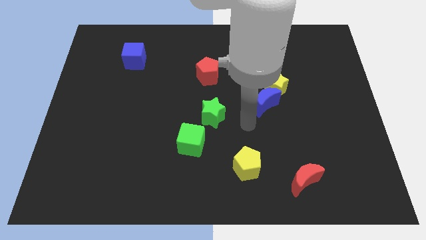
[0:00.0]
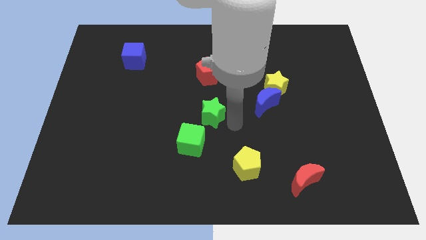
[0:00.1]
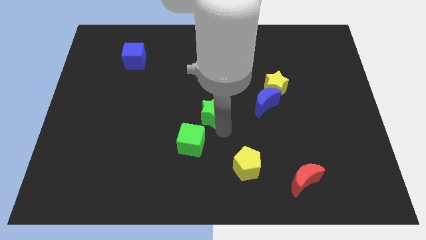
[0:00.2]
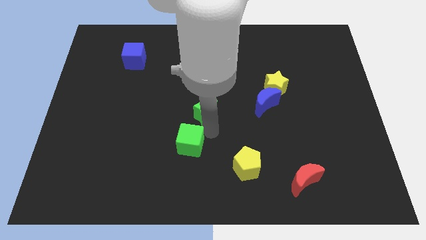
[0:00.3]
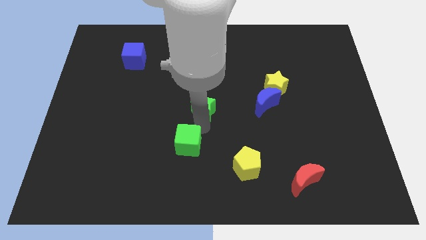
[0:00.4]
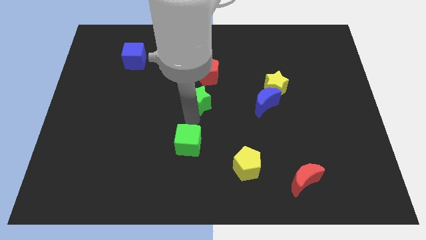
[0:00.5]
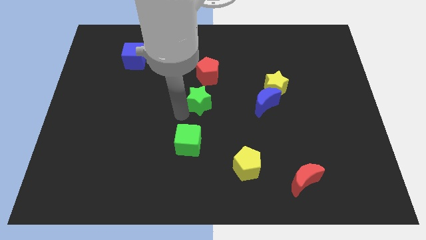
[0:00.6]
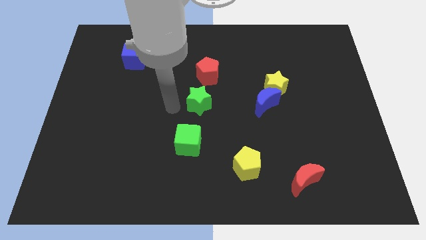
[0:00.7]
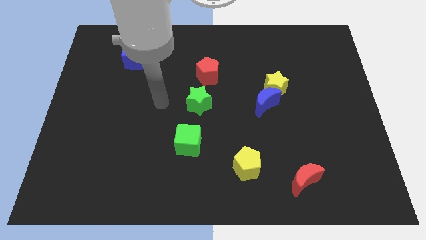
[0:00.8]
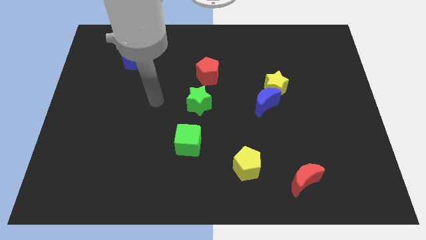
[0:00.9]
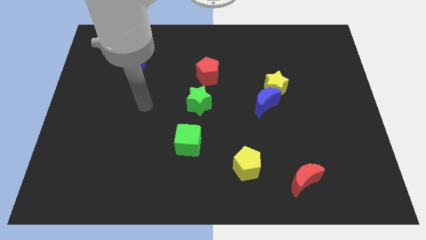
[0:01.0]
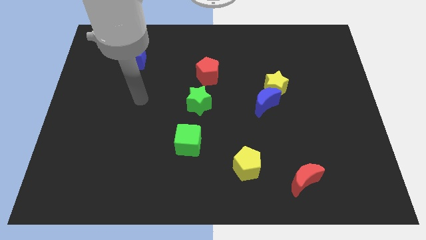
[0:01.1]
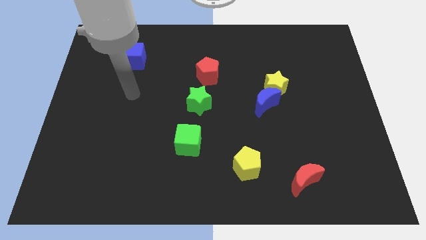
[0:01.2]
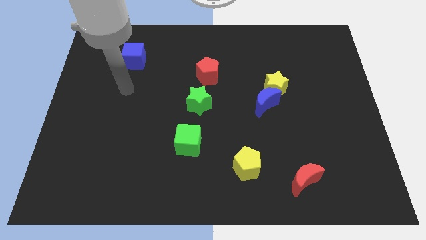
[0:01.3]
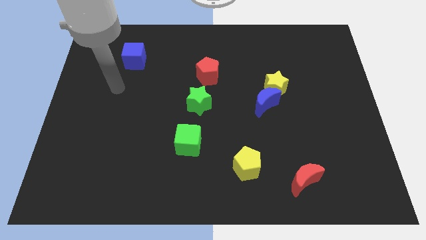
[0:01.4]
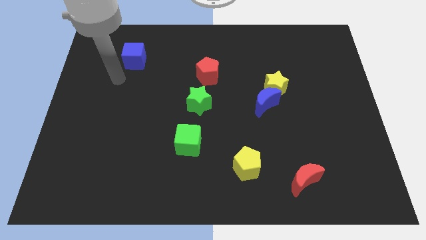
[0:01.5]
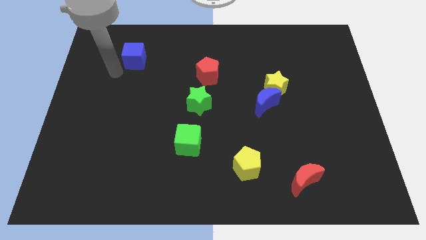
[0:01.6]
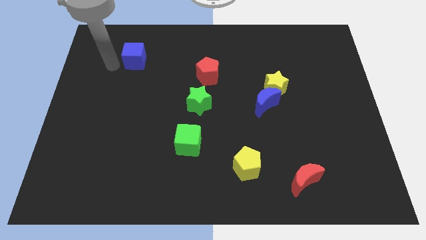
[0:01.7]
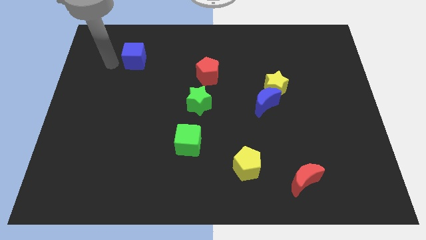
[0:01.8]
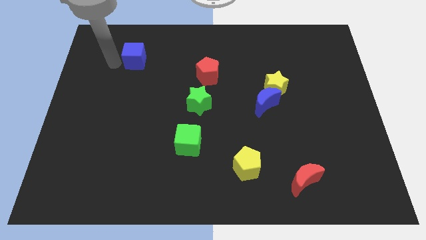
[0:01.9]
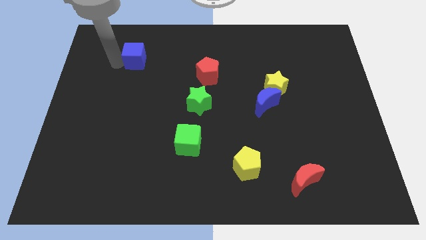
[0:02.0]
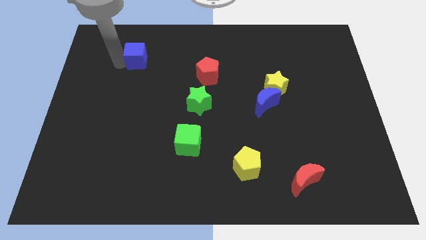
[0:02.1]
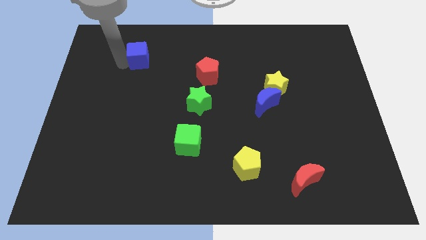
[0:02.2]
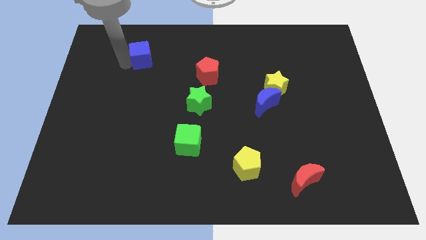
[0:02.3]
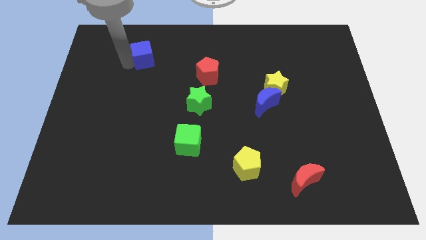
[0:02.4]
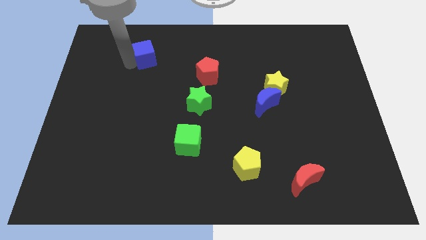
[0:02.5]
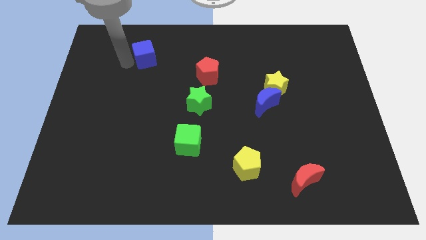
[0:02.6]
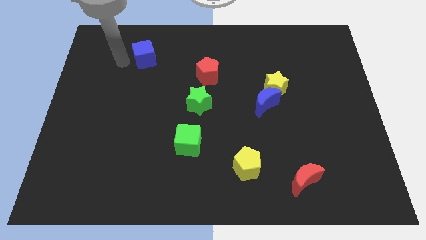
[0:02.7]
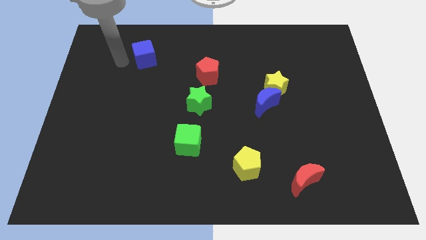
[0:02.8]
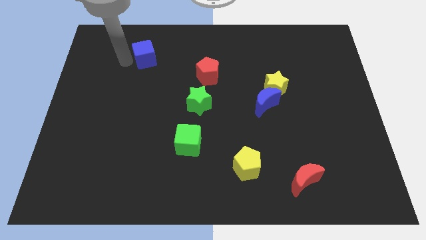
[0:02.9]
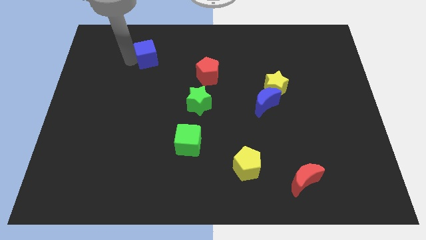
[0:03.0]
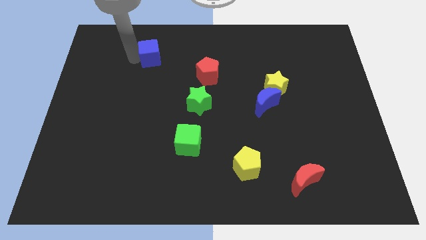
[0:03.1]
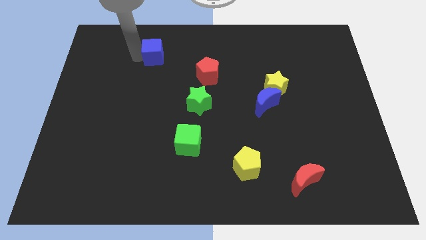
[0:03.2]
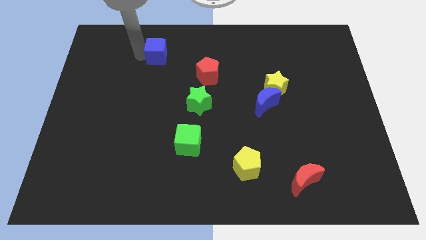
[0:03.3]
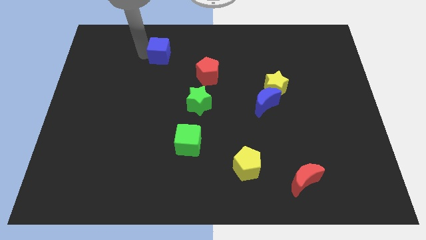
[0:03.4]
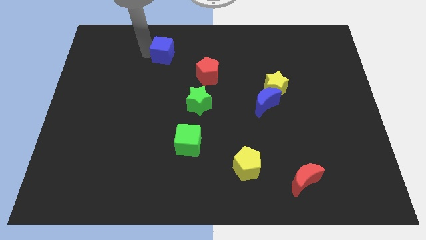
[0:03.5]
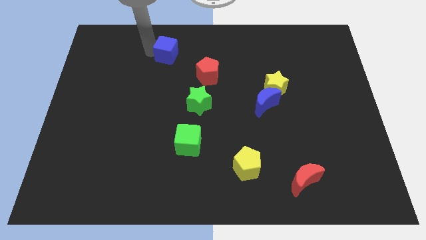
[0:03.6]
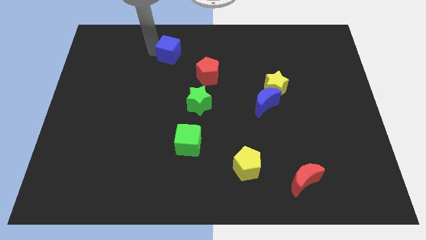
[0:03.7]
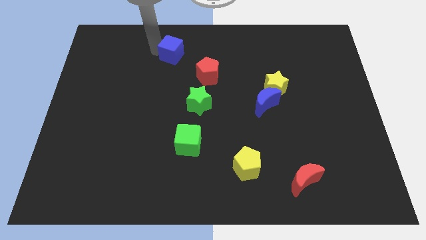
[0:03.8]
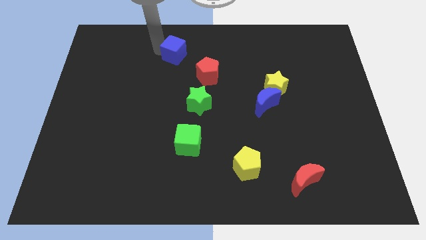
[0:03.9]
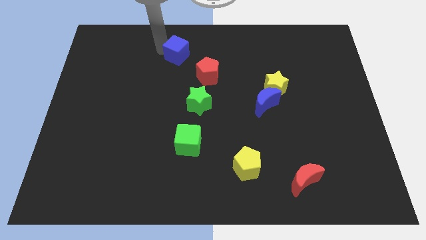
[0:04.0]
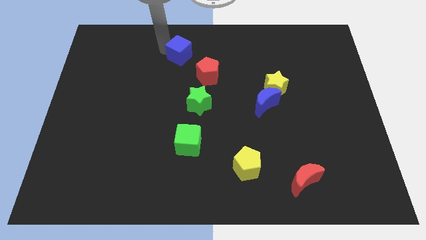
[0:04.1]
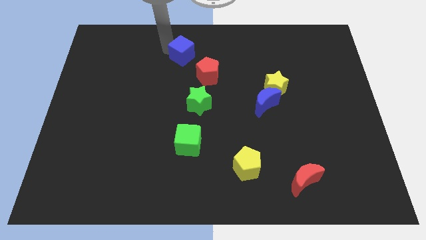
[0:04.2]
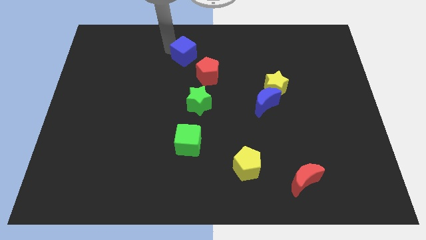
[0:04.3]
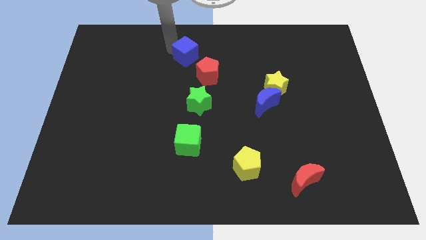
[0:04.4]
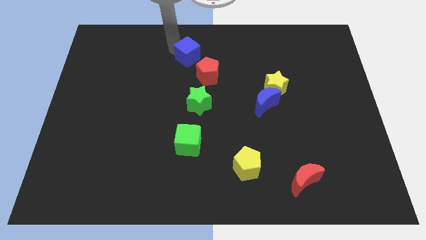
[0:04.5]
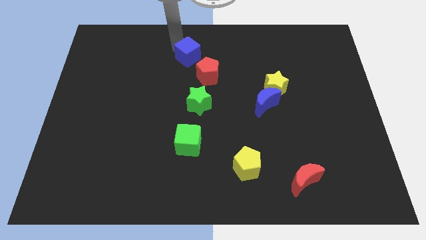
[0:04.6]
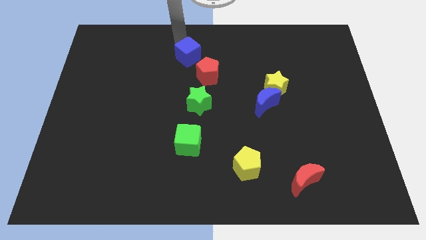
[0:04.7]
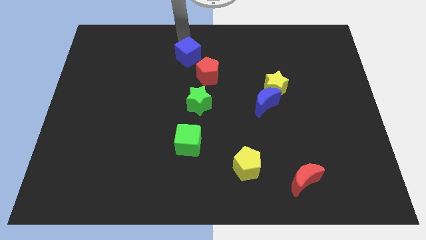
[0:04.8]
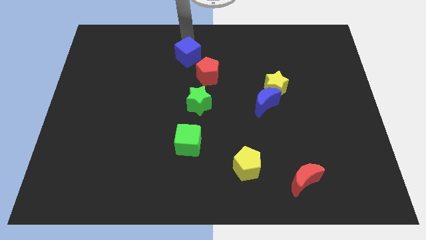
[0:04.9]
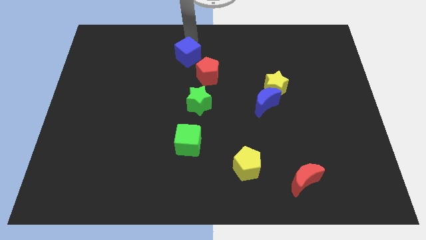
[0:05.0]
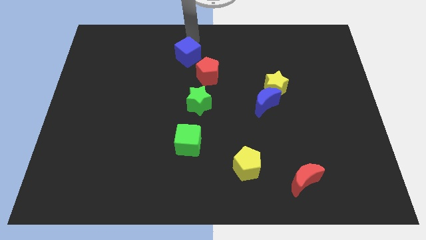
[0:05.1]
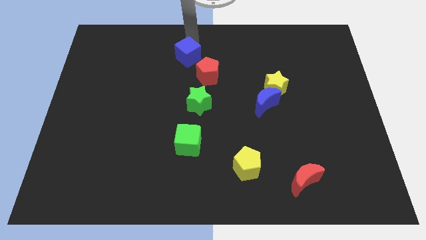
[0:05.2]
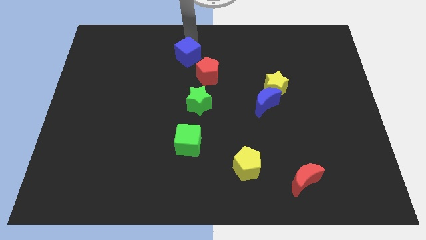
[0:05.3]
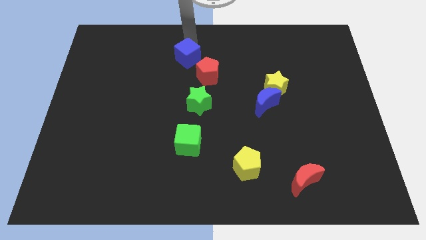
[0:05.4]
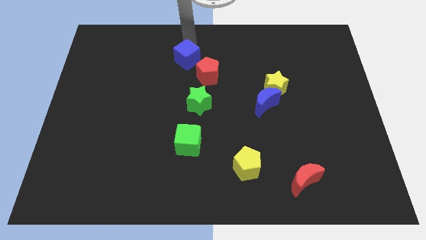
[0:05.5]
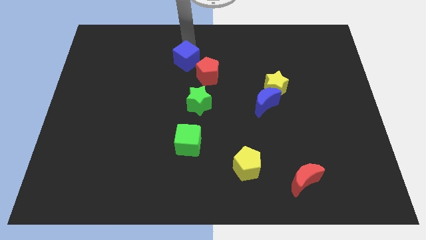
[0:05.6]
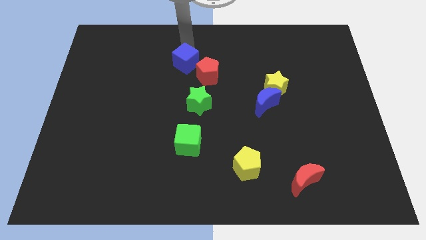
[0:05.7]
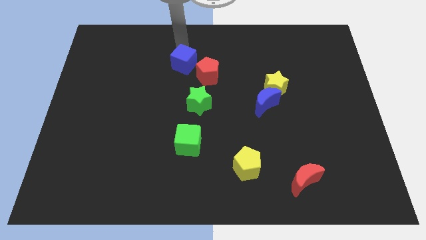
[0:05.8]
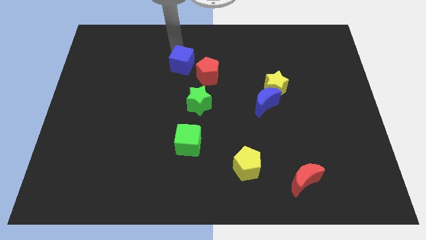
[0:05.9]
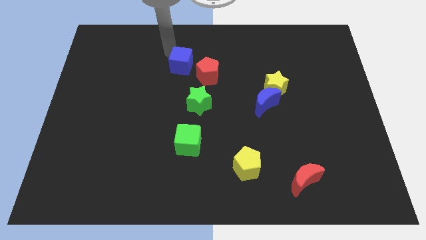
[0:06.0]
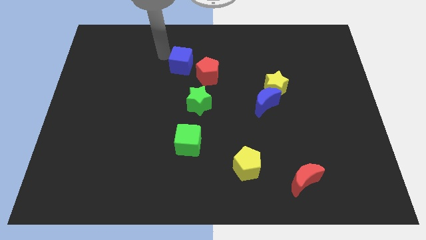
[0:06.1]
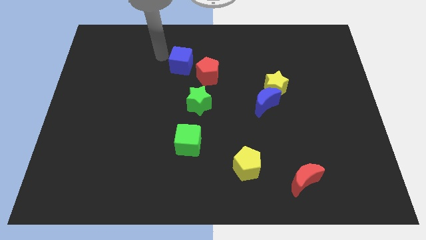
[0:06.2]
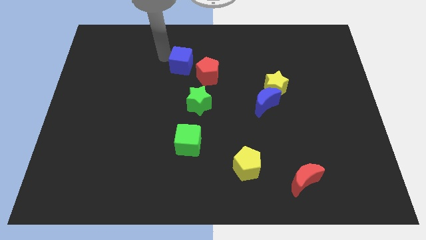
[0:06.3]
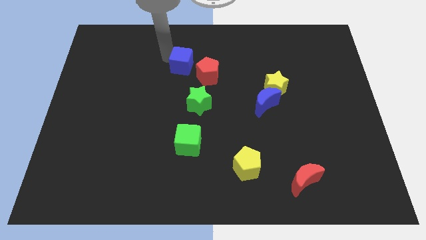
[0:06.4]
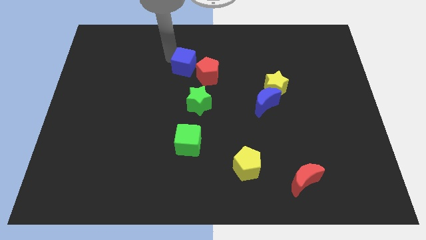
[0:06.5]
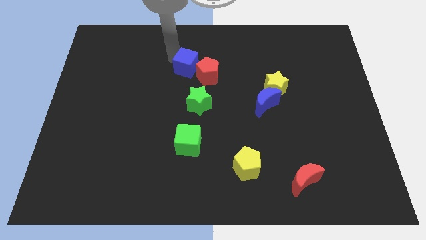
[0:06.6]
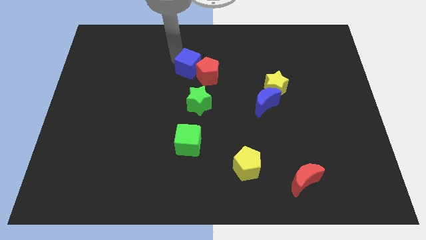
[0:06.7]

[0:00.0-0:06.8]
slide the blue cube close to the red pentagon
